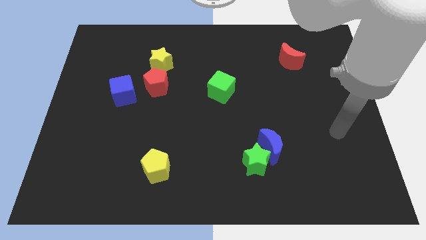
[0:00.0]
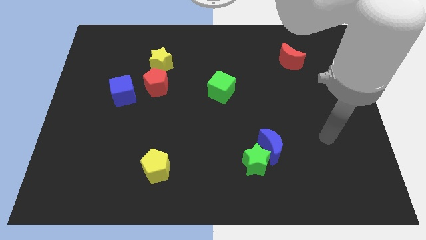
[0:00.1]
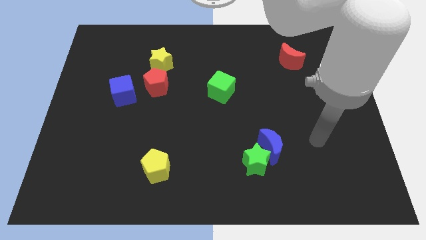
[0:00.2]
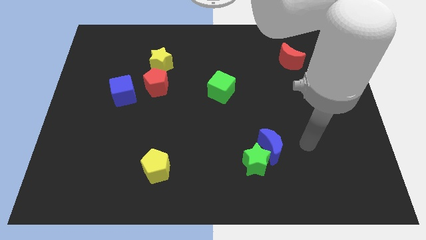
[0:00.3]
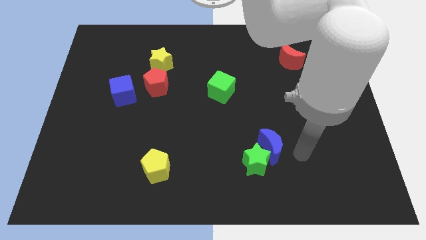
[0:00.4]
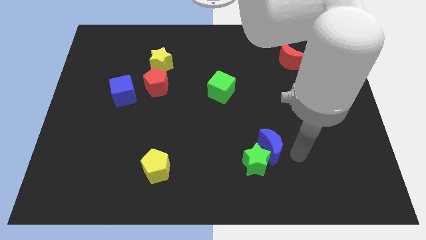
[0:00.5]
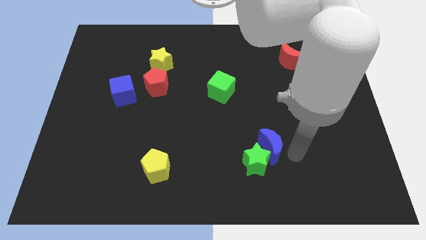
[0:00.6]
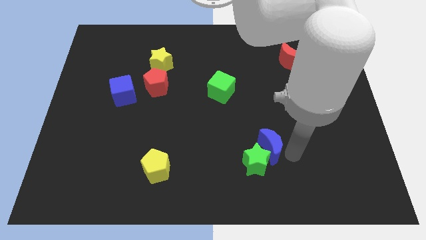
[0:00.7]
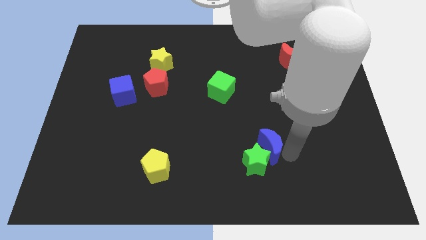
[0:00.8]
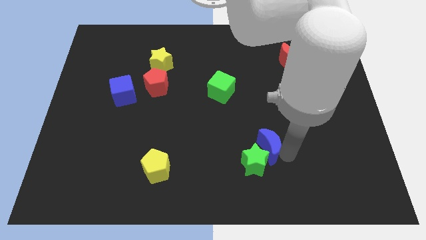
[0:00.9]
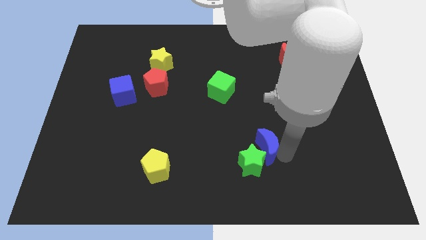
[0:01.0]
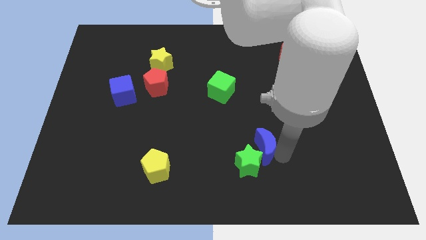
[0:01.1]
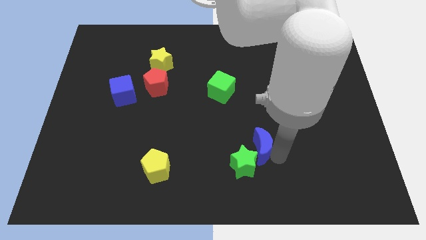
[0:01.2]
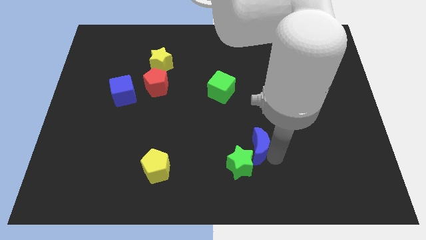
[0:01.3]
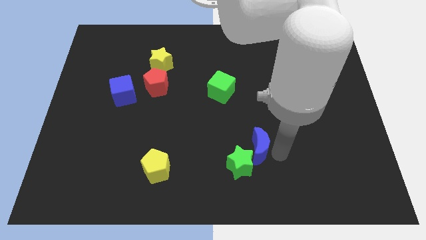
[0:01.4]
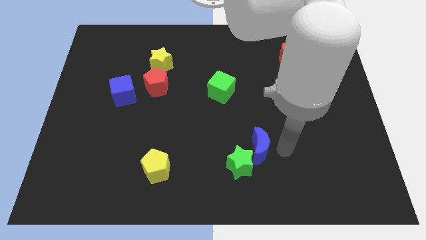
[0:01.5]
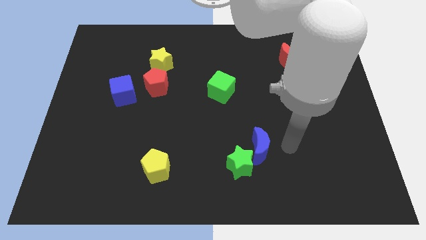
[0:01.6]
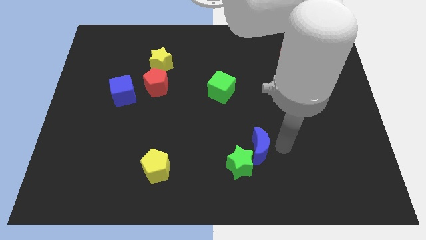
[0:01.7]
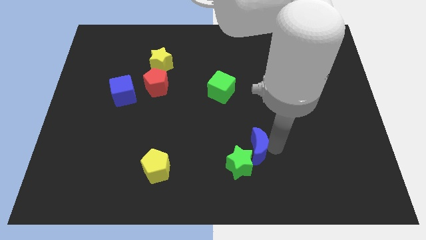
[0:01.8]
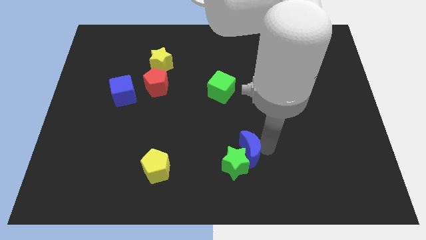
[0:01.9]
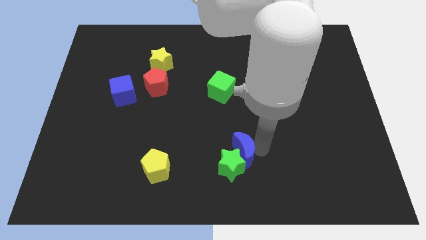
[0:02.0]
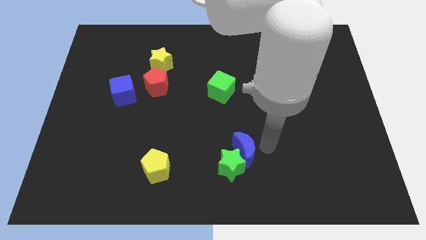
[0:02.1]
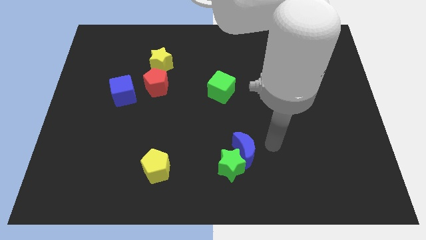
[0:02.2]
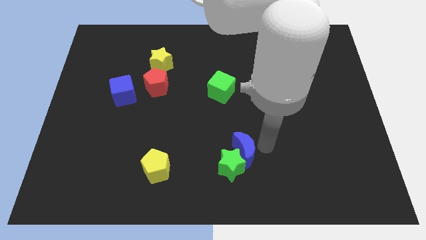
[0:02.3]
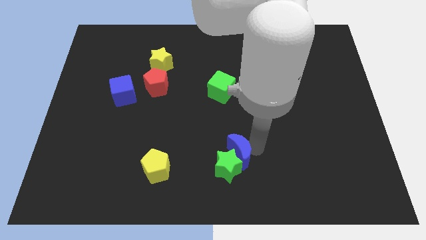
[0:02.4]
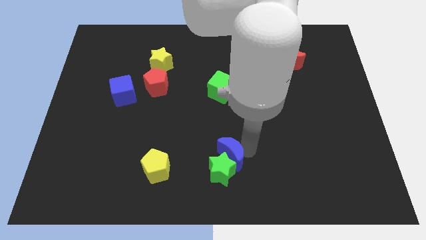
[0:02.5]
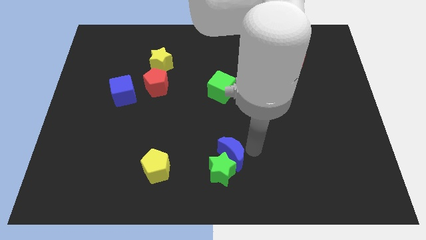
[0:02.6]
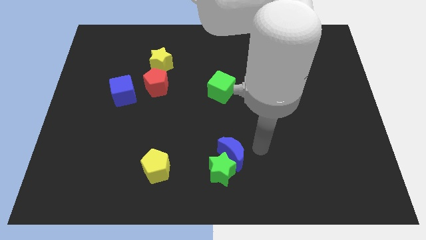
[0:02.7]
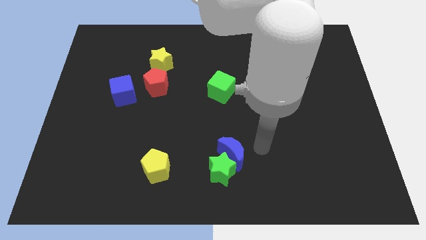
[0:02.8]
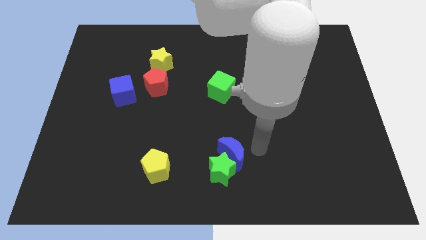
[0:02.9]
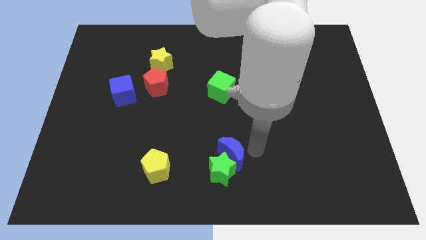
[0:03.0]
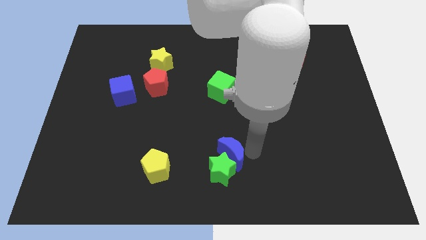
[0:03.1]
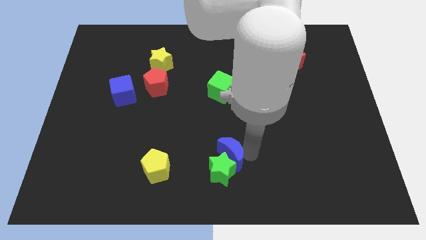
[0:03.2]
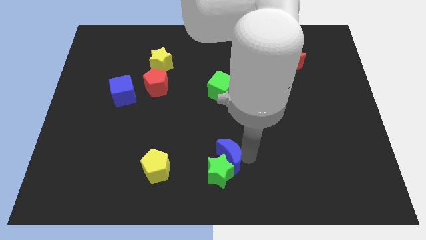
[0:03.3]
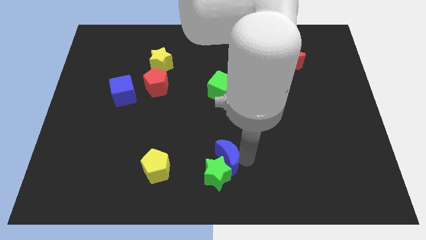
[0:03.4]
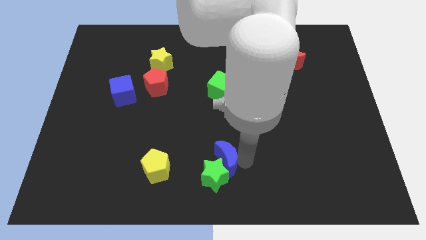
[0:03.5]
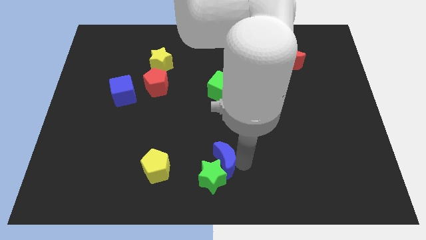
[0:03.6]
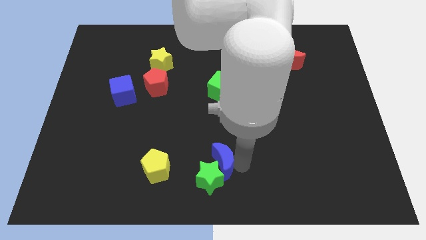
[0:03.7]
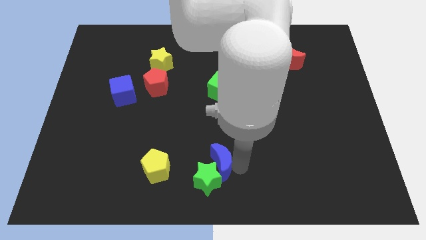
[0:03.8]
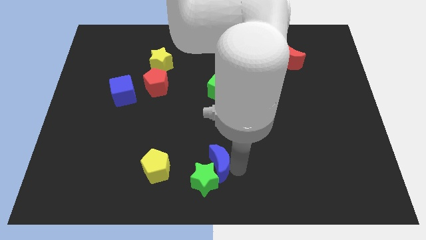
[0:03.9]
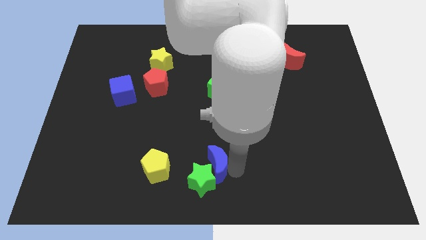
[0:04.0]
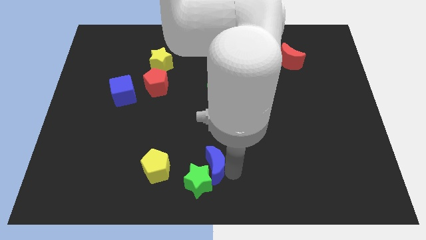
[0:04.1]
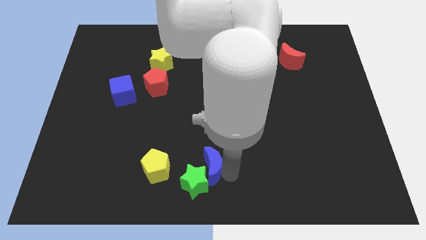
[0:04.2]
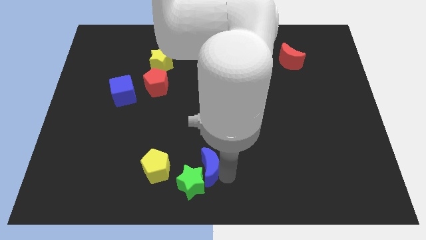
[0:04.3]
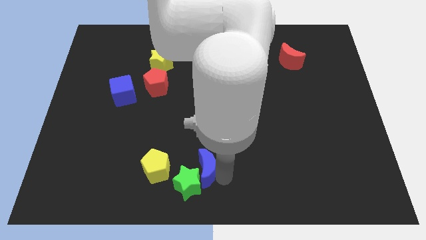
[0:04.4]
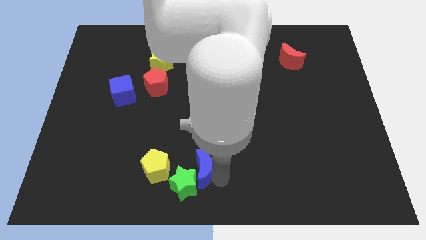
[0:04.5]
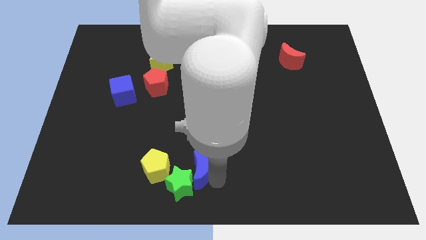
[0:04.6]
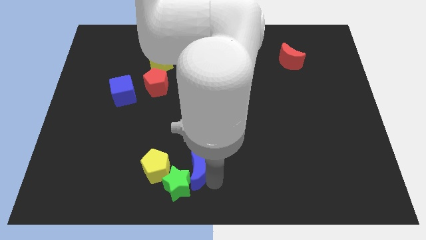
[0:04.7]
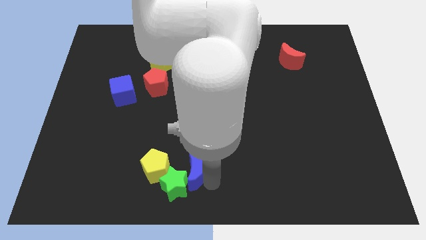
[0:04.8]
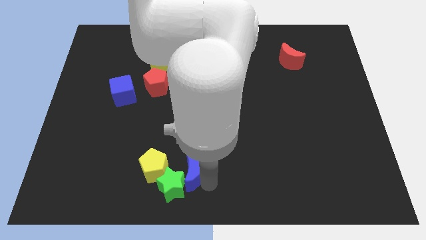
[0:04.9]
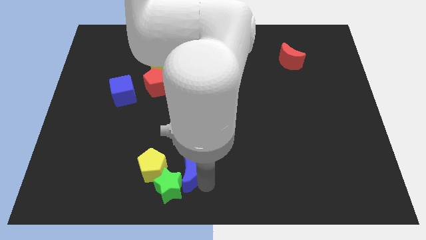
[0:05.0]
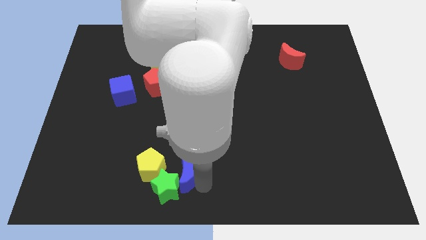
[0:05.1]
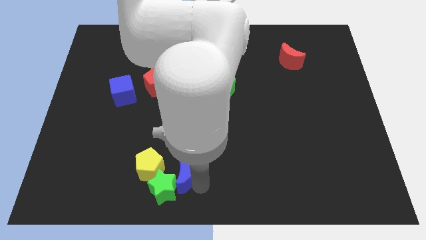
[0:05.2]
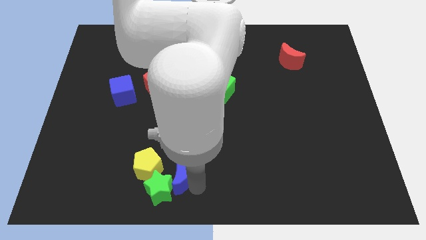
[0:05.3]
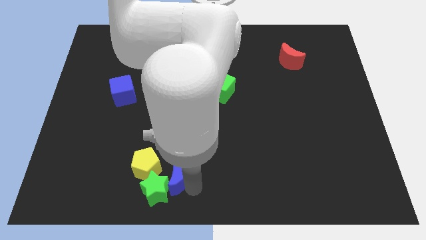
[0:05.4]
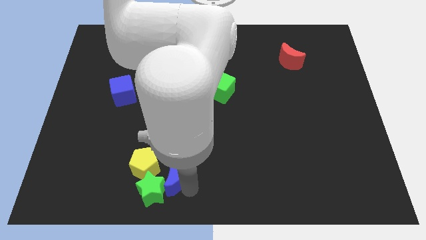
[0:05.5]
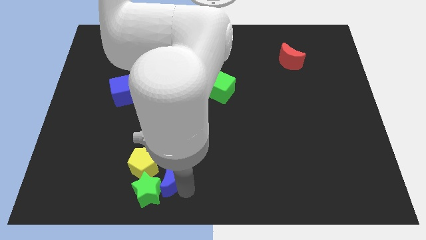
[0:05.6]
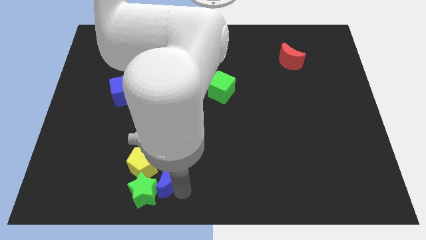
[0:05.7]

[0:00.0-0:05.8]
push the blue moon close to the yellow pentagon

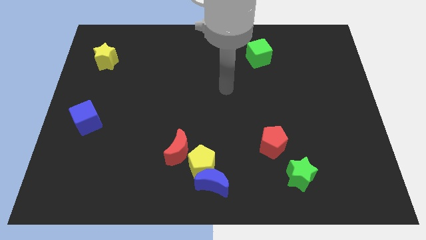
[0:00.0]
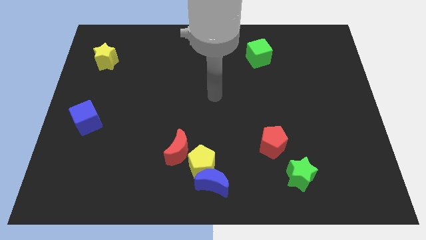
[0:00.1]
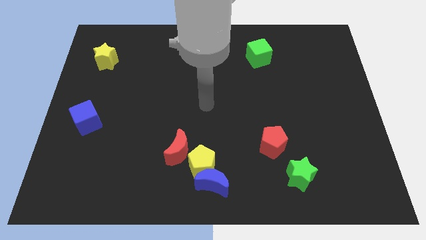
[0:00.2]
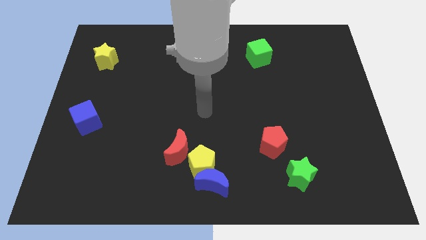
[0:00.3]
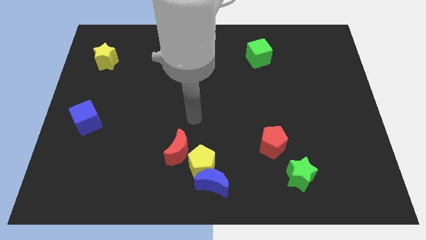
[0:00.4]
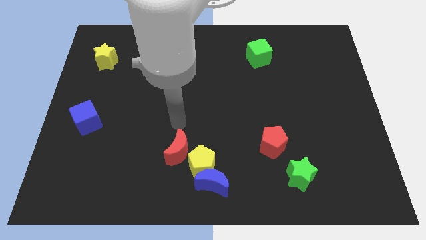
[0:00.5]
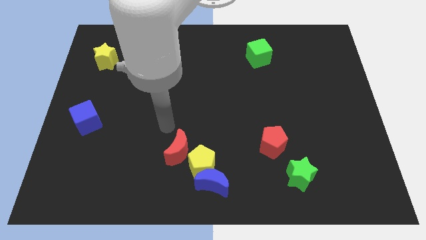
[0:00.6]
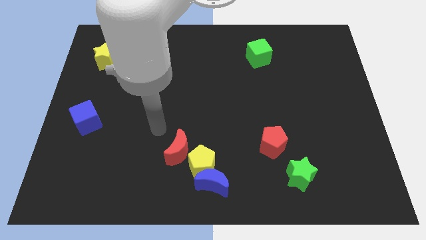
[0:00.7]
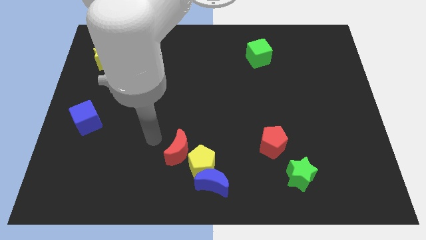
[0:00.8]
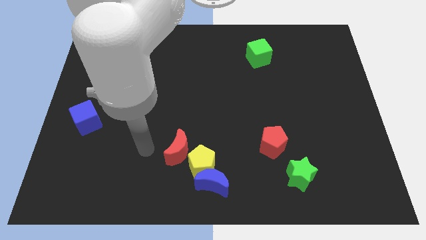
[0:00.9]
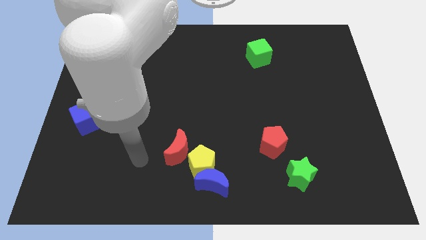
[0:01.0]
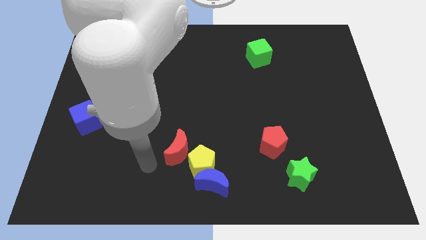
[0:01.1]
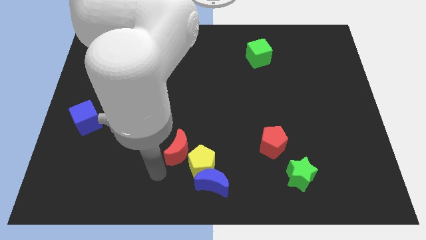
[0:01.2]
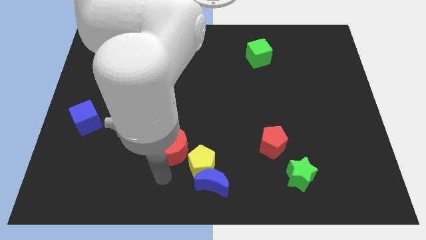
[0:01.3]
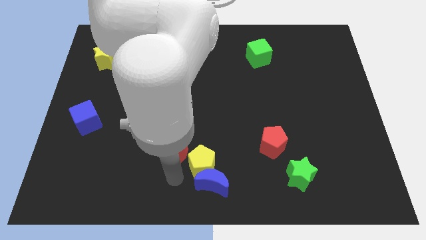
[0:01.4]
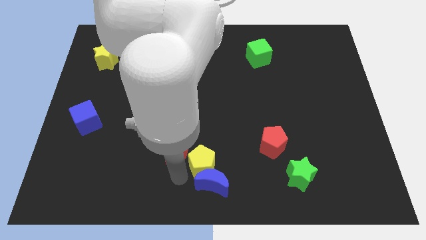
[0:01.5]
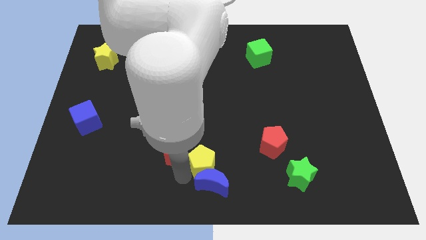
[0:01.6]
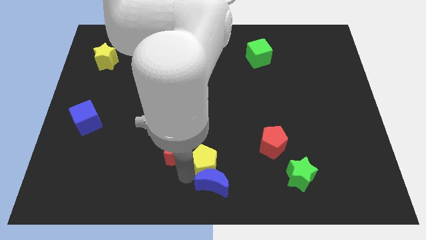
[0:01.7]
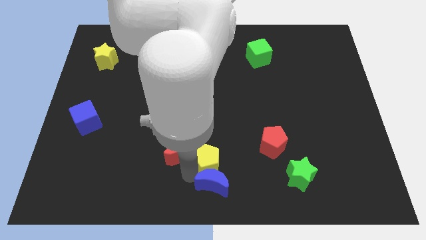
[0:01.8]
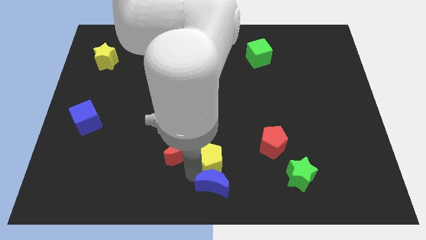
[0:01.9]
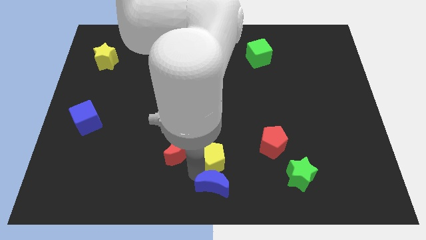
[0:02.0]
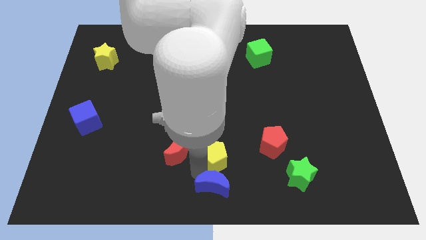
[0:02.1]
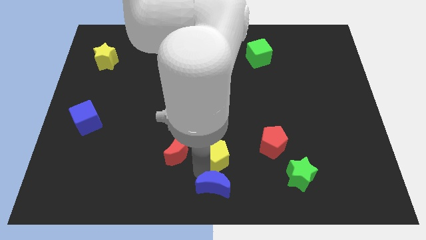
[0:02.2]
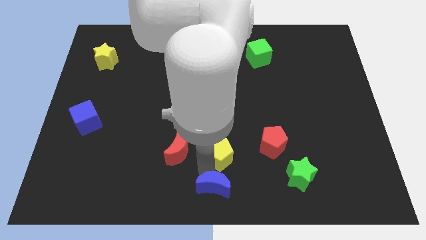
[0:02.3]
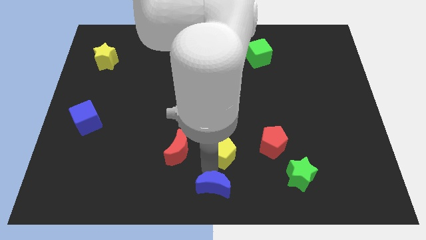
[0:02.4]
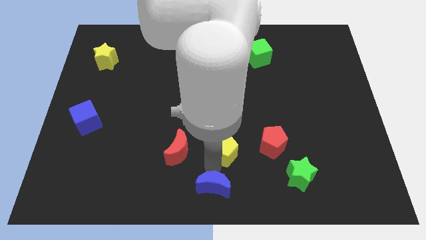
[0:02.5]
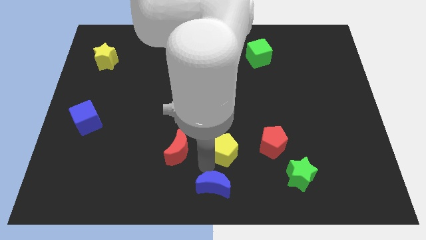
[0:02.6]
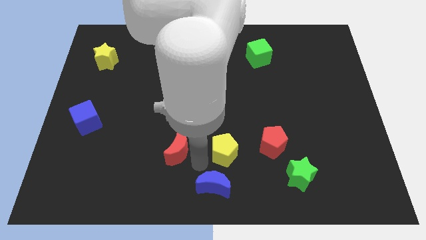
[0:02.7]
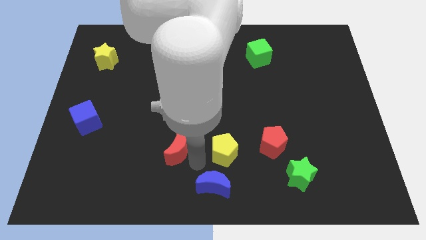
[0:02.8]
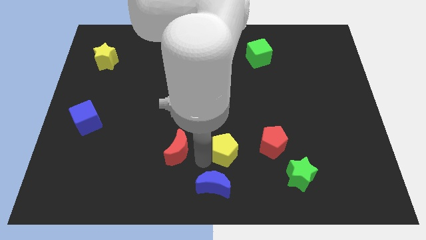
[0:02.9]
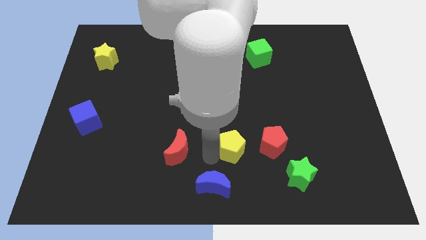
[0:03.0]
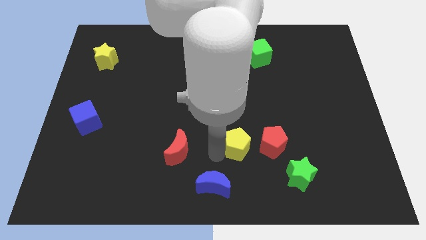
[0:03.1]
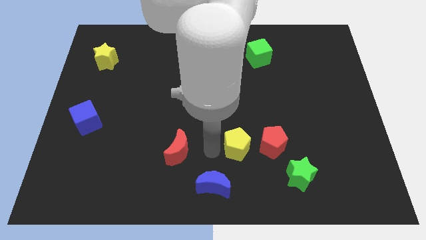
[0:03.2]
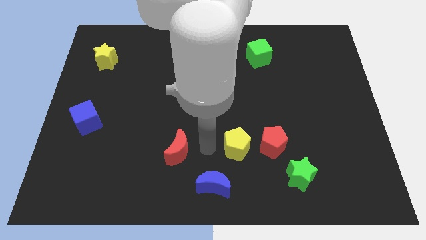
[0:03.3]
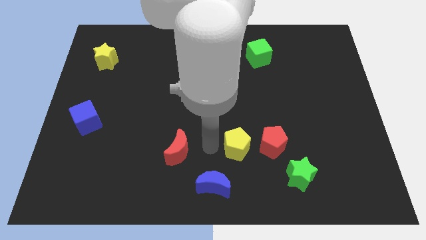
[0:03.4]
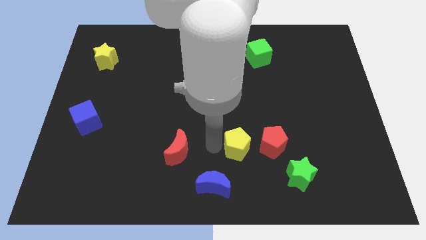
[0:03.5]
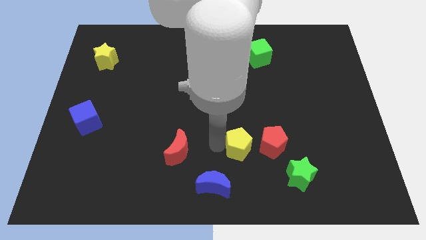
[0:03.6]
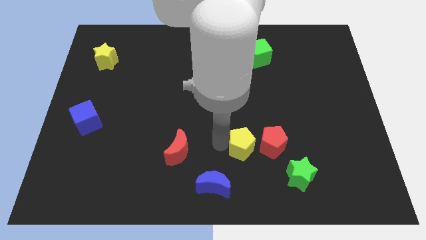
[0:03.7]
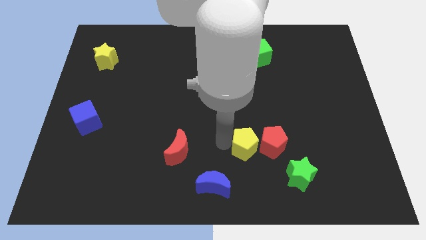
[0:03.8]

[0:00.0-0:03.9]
slide the yellow pentagon next to the red pentagon
